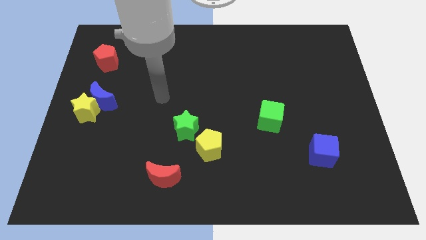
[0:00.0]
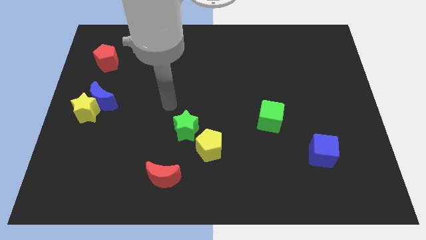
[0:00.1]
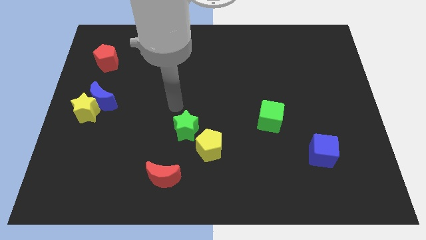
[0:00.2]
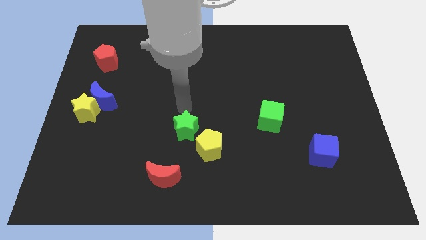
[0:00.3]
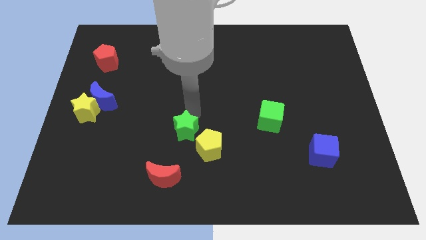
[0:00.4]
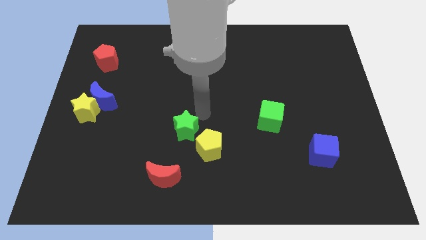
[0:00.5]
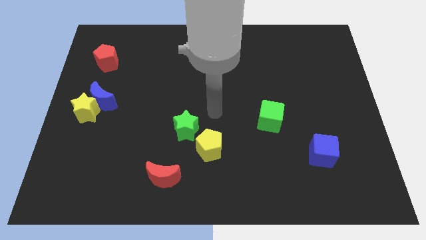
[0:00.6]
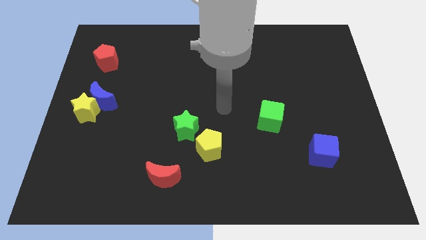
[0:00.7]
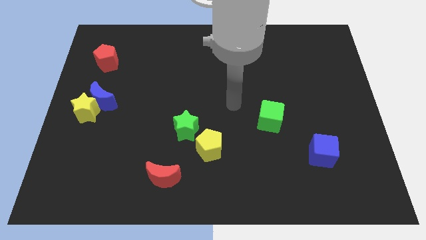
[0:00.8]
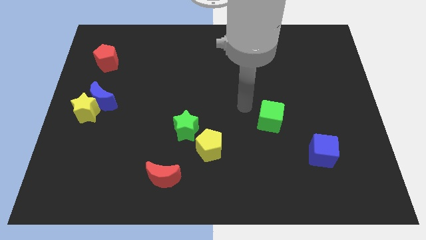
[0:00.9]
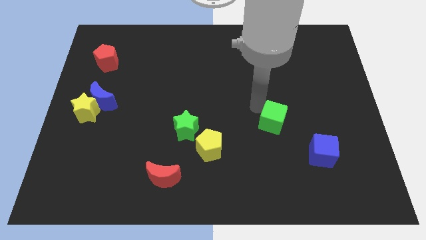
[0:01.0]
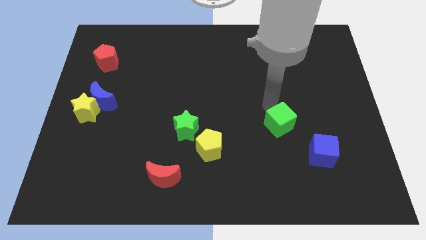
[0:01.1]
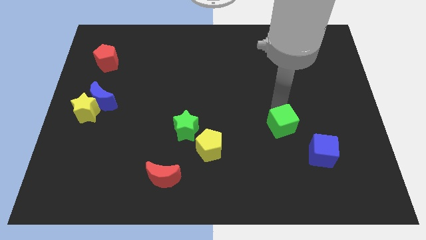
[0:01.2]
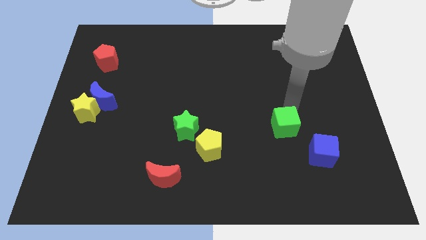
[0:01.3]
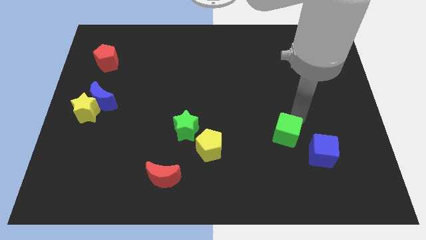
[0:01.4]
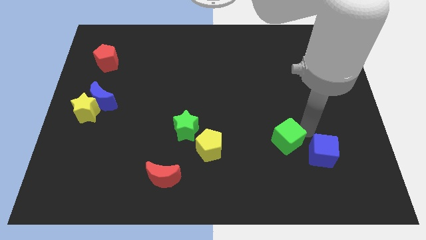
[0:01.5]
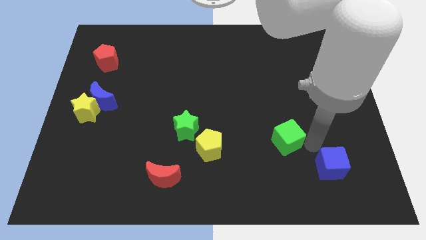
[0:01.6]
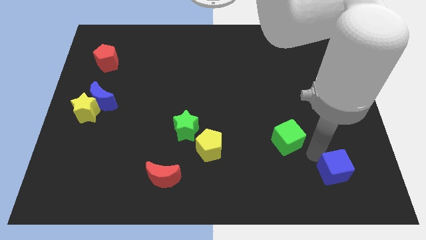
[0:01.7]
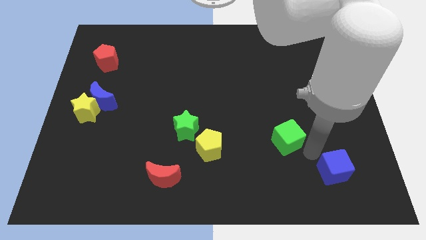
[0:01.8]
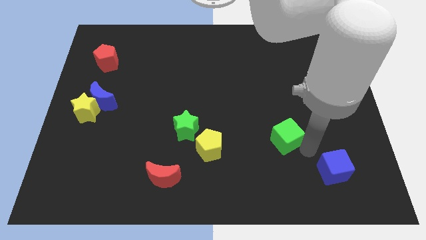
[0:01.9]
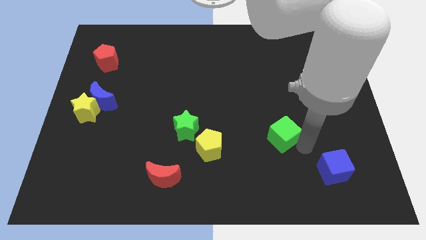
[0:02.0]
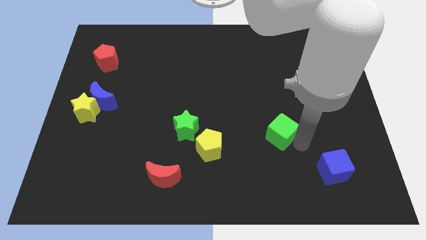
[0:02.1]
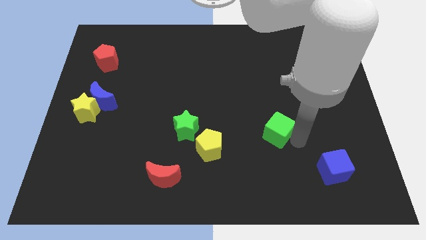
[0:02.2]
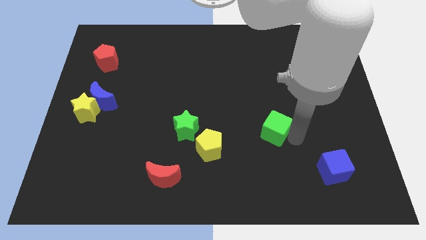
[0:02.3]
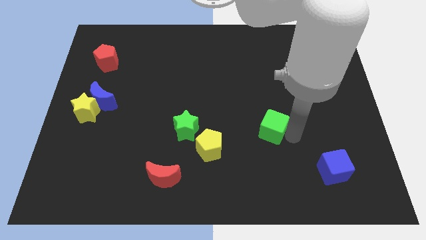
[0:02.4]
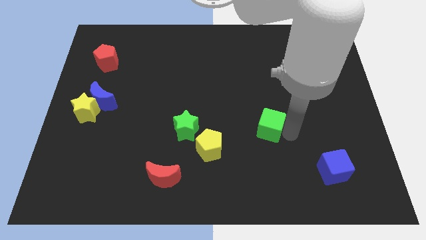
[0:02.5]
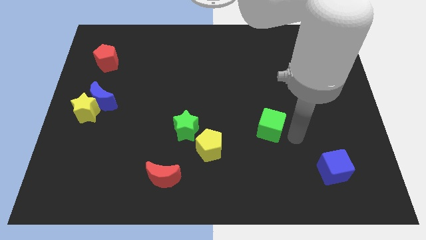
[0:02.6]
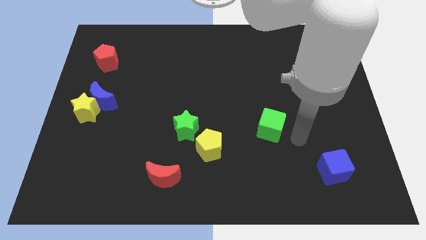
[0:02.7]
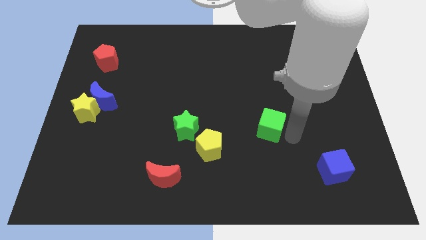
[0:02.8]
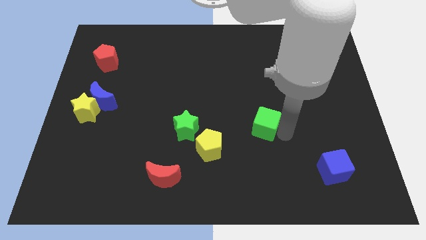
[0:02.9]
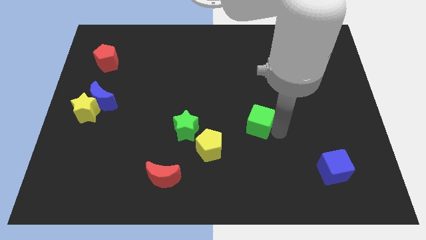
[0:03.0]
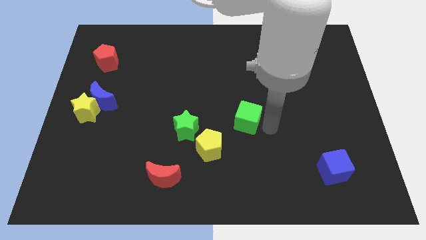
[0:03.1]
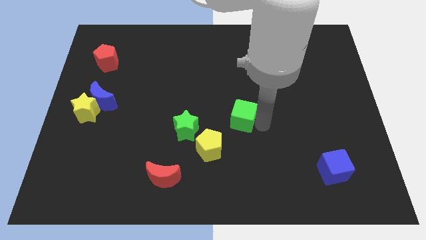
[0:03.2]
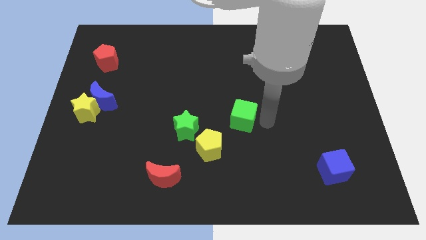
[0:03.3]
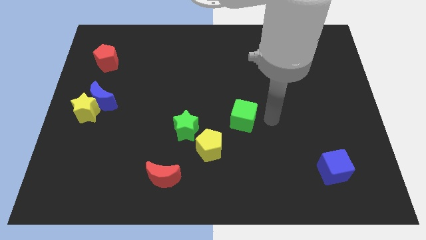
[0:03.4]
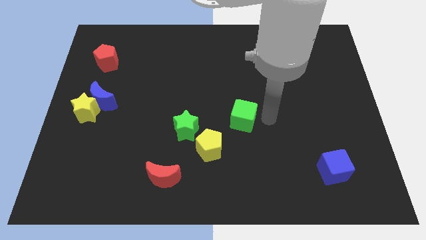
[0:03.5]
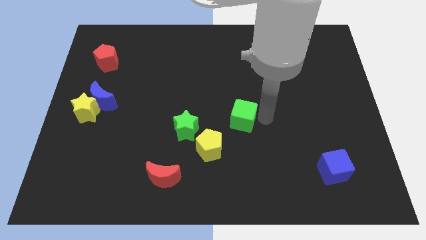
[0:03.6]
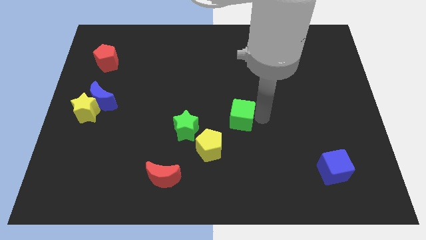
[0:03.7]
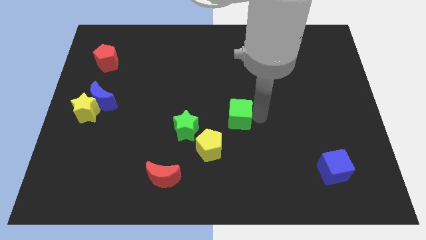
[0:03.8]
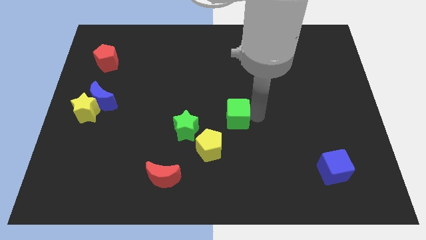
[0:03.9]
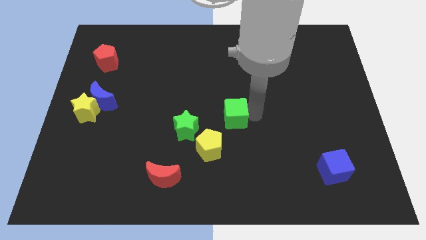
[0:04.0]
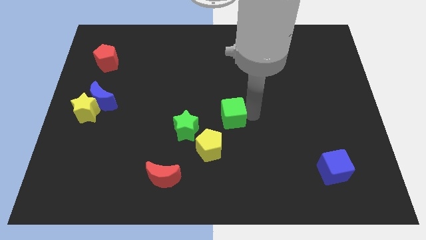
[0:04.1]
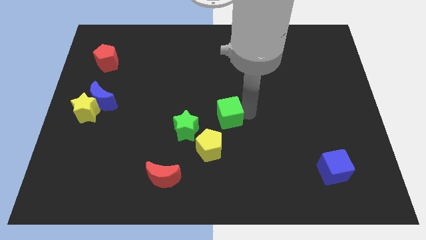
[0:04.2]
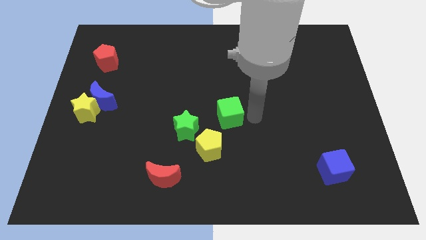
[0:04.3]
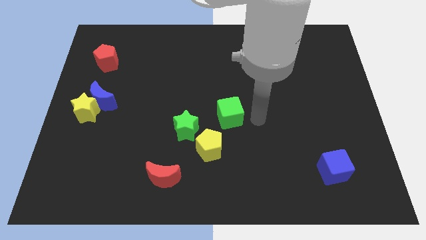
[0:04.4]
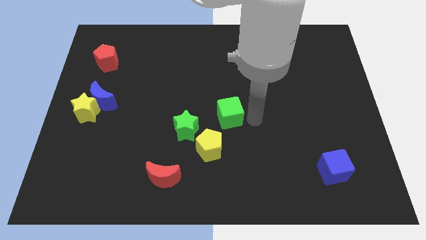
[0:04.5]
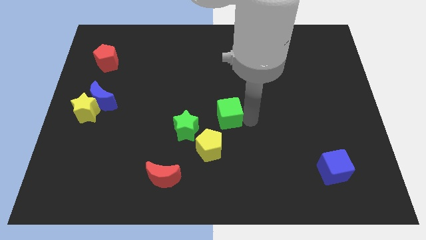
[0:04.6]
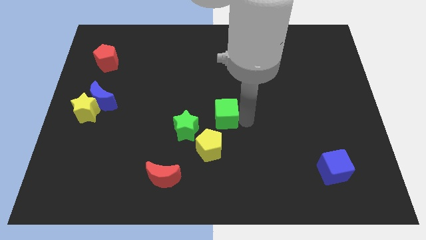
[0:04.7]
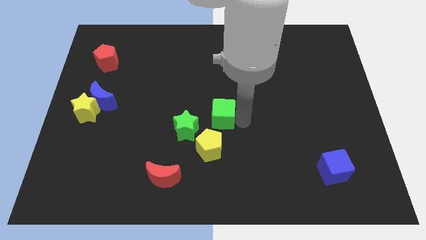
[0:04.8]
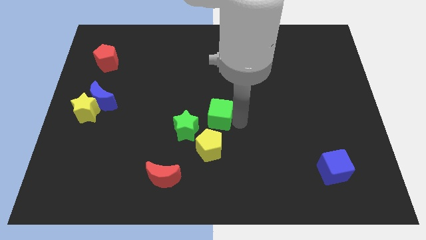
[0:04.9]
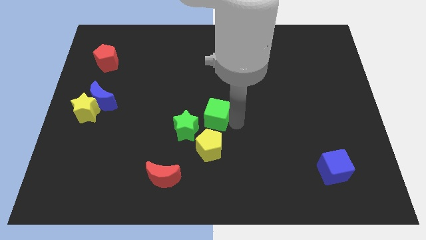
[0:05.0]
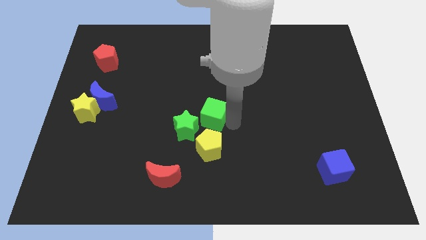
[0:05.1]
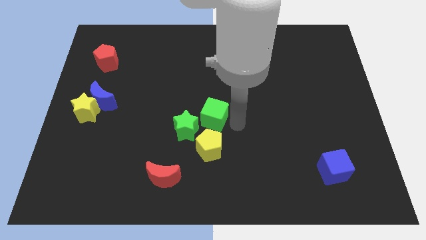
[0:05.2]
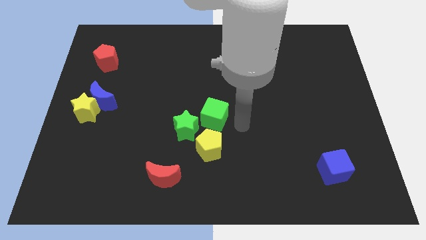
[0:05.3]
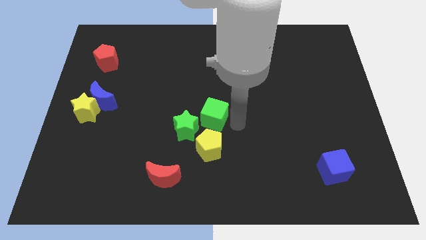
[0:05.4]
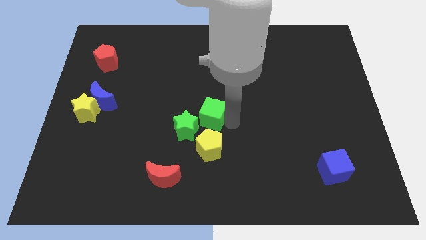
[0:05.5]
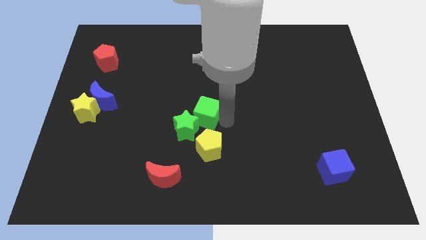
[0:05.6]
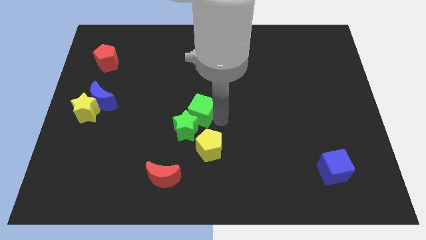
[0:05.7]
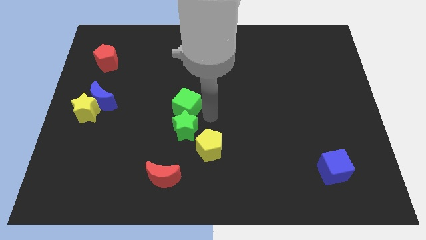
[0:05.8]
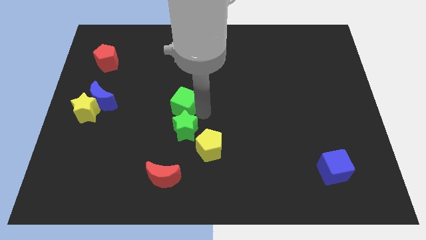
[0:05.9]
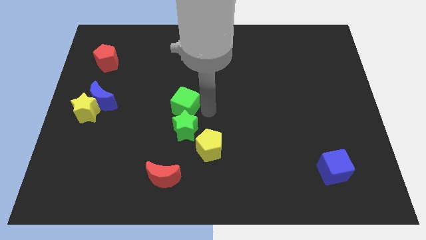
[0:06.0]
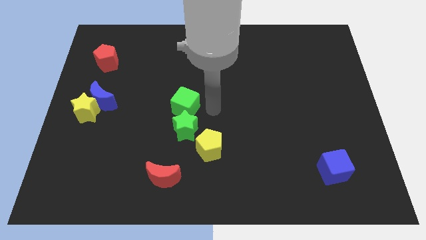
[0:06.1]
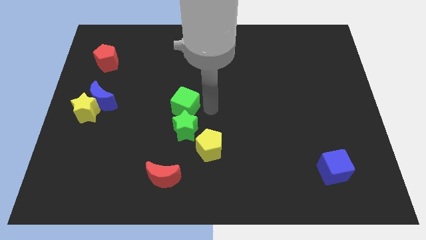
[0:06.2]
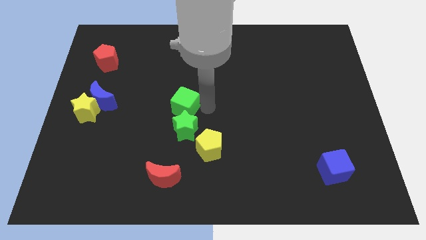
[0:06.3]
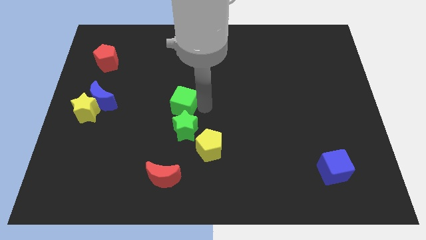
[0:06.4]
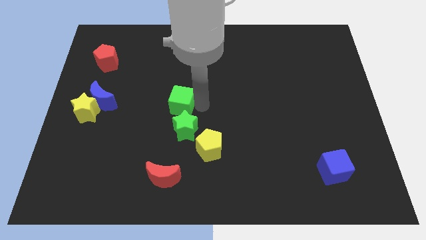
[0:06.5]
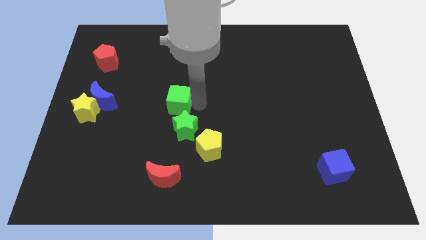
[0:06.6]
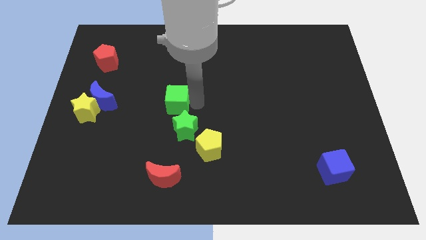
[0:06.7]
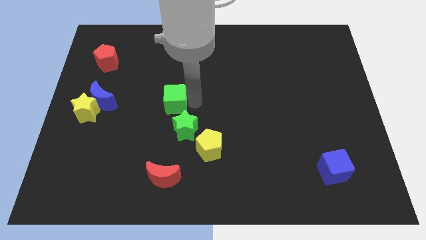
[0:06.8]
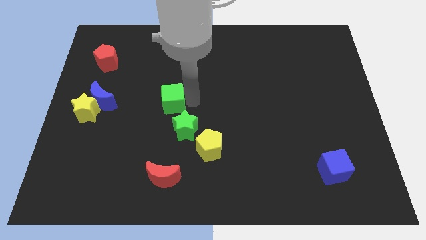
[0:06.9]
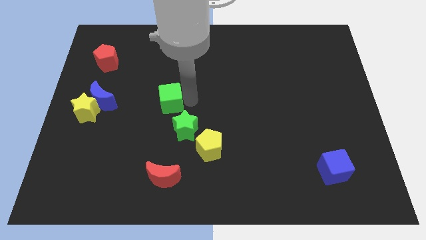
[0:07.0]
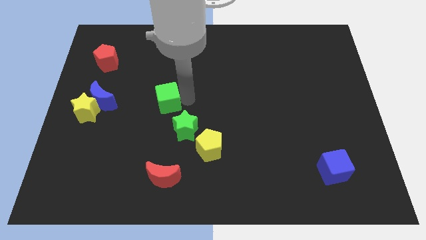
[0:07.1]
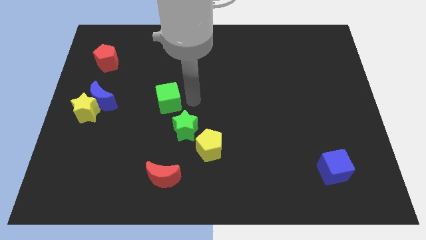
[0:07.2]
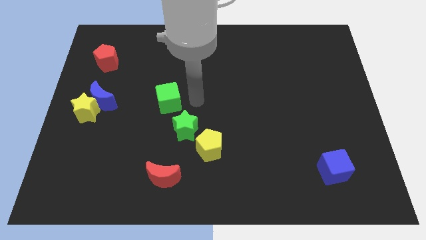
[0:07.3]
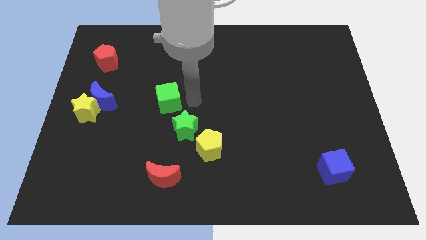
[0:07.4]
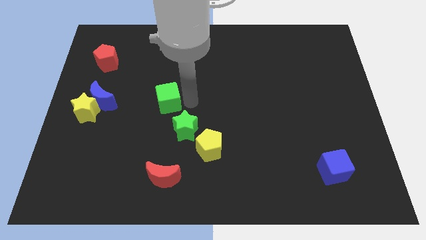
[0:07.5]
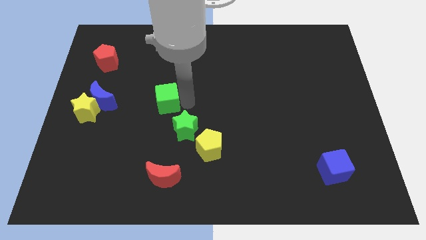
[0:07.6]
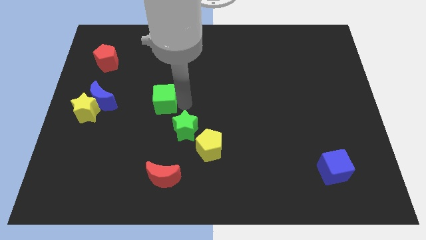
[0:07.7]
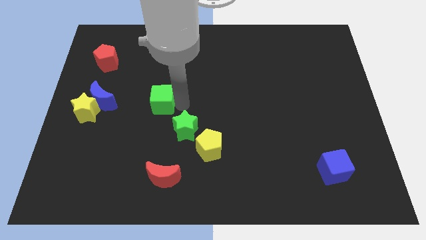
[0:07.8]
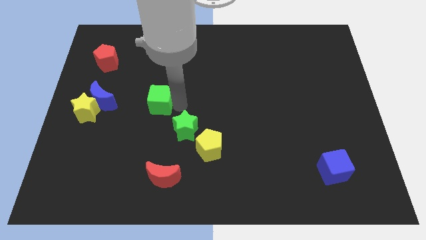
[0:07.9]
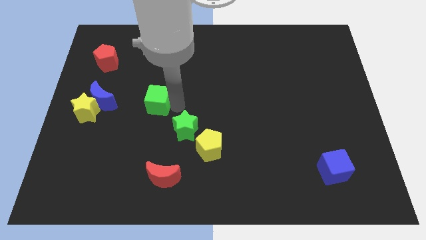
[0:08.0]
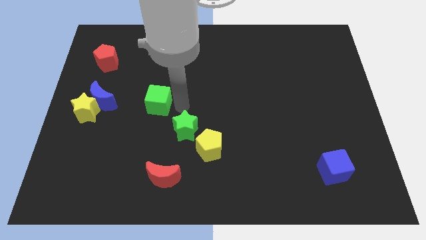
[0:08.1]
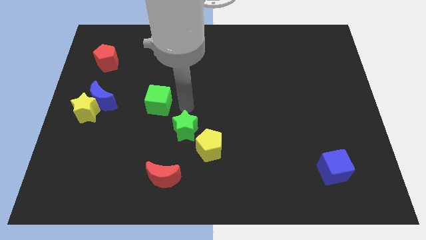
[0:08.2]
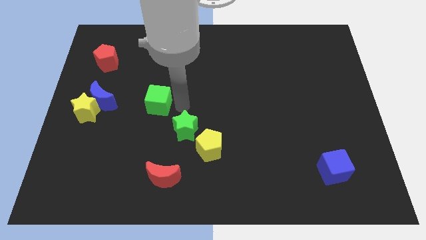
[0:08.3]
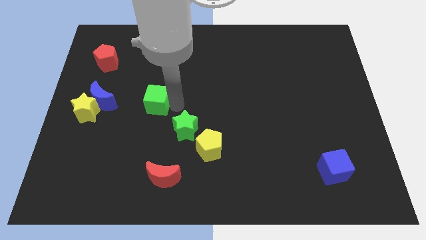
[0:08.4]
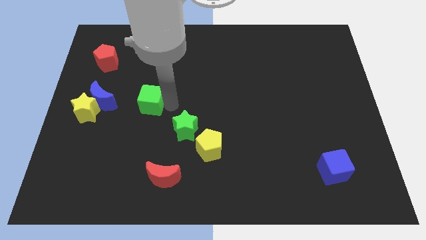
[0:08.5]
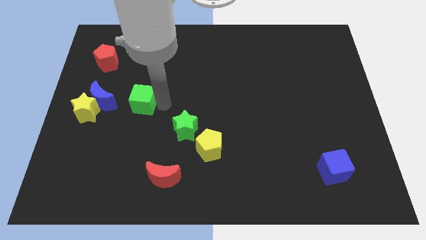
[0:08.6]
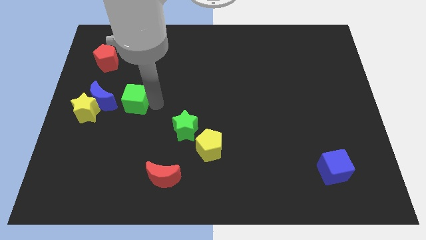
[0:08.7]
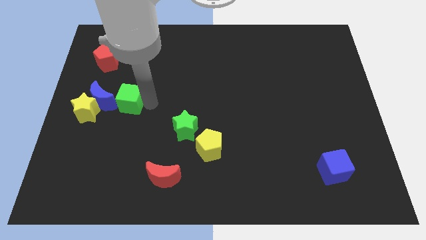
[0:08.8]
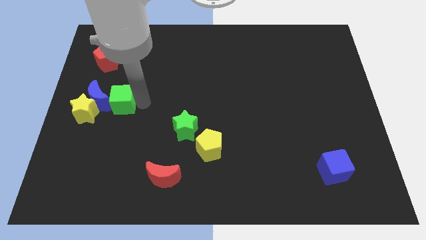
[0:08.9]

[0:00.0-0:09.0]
push the green cube to the blue moon
